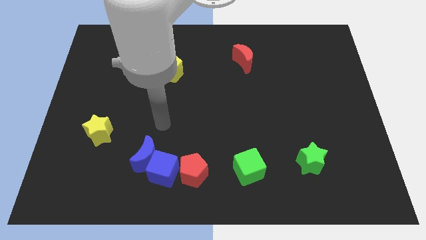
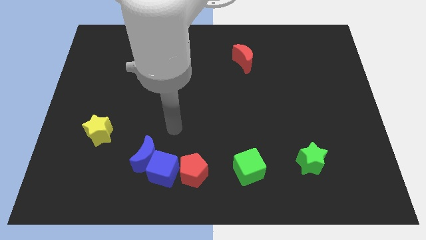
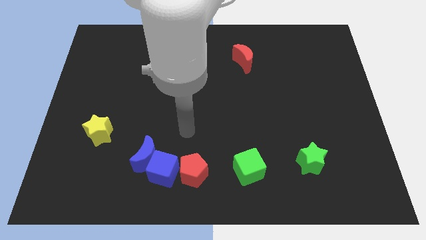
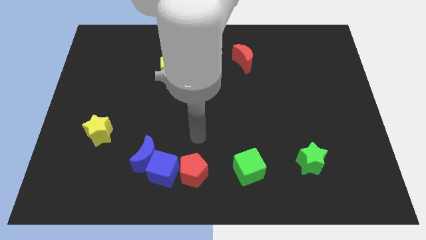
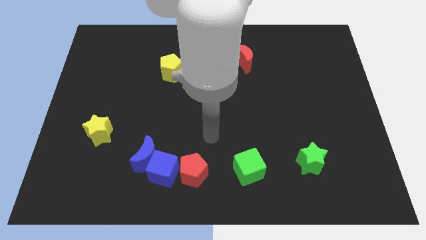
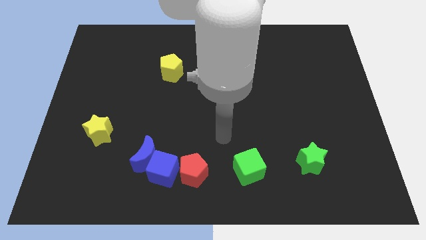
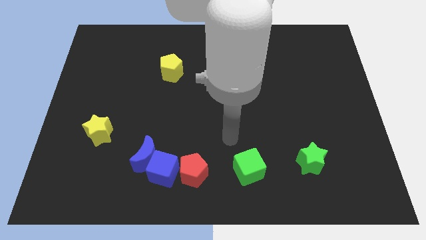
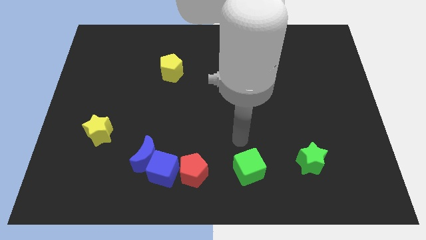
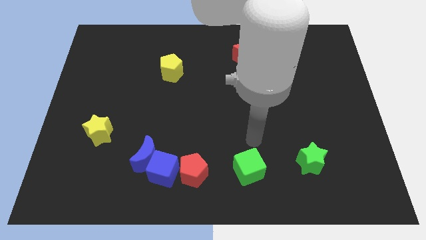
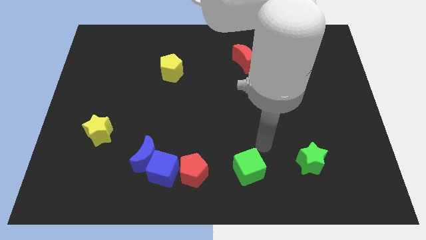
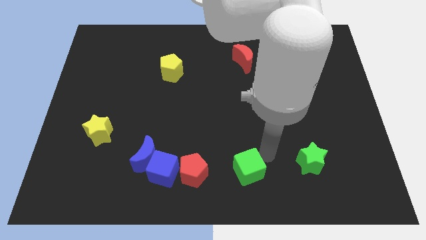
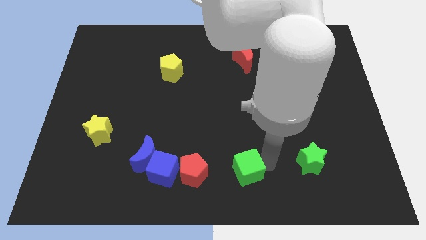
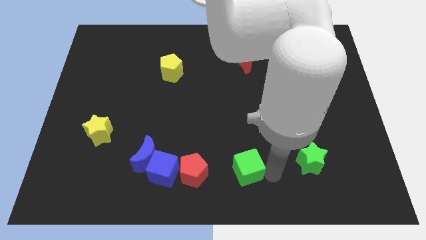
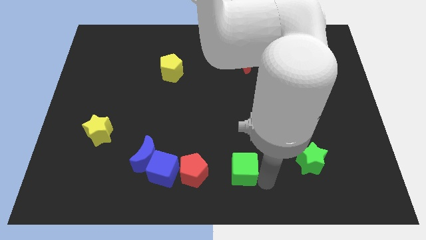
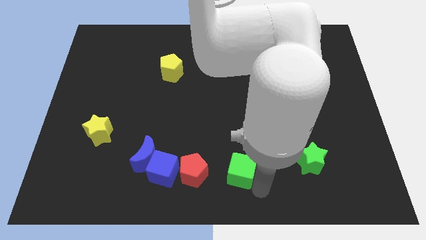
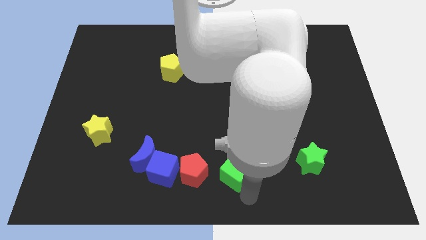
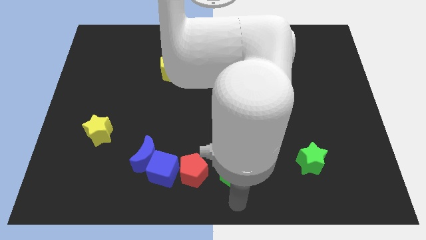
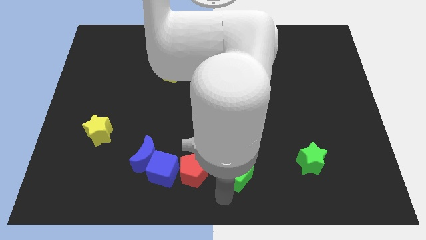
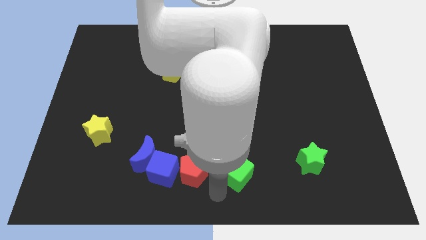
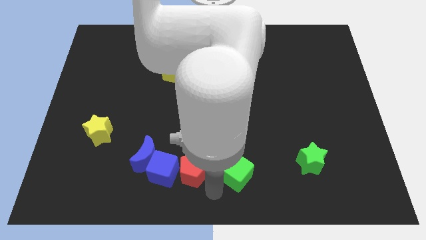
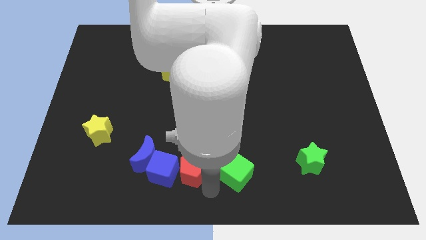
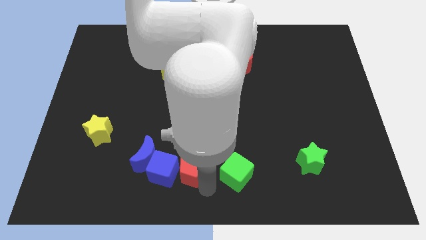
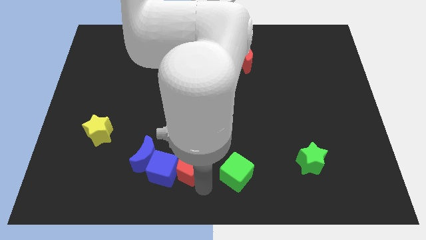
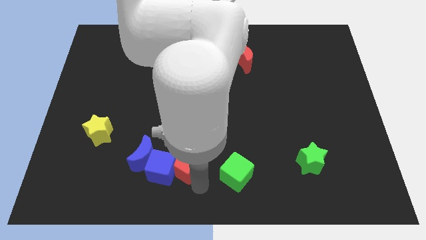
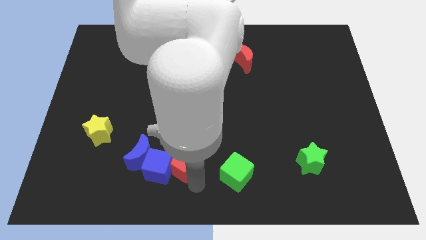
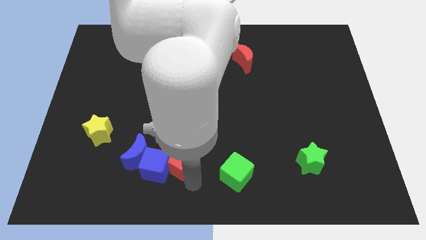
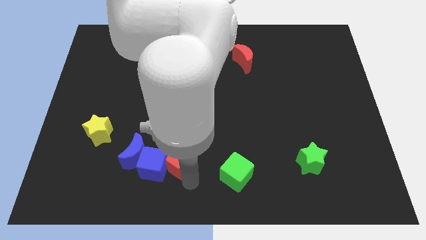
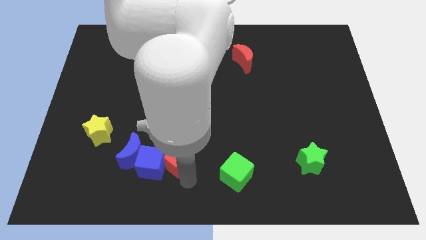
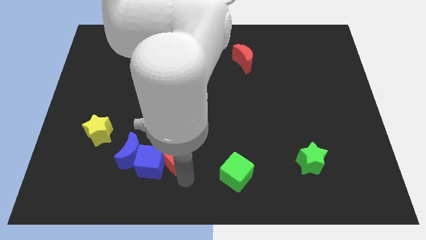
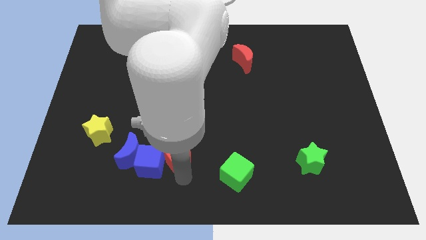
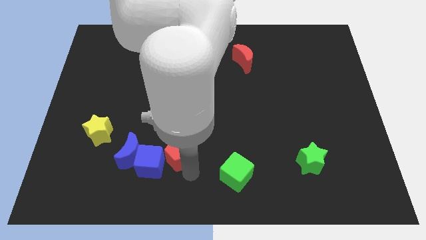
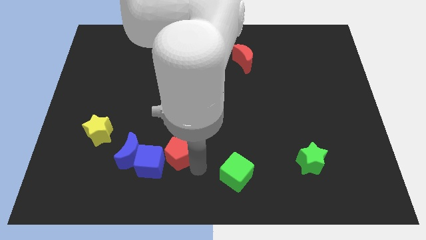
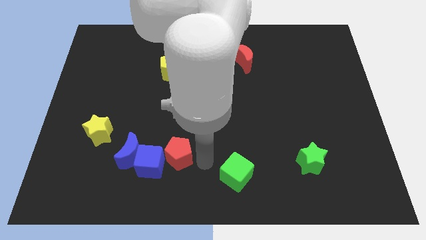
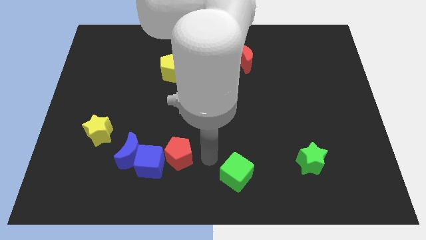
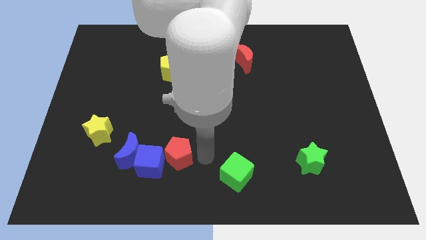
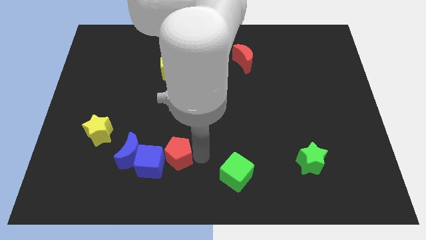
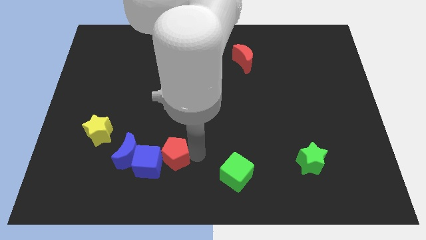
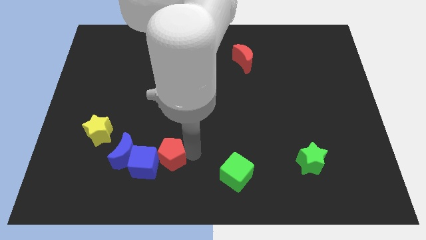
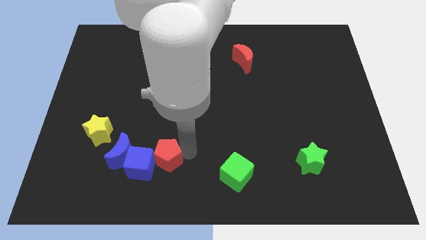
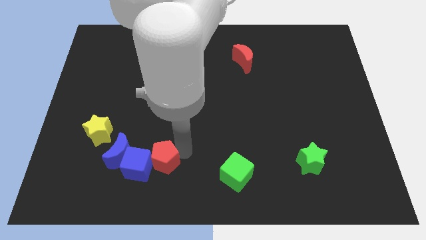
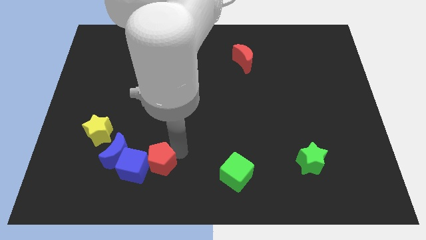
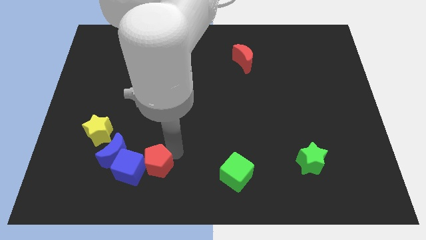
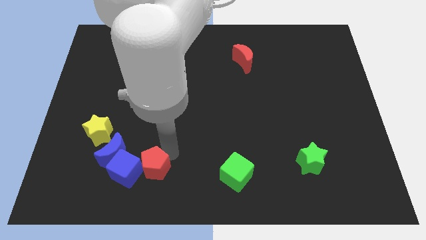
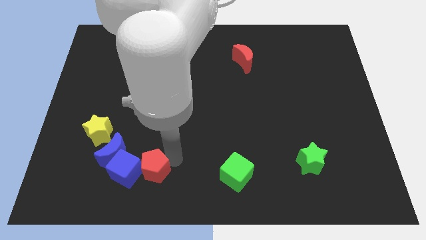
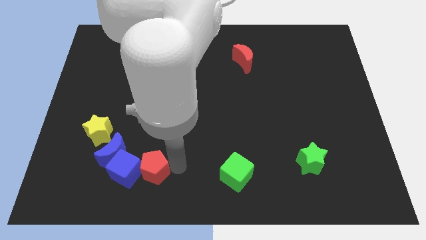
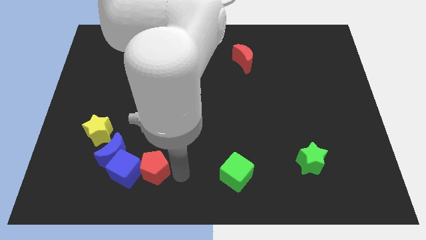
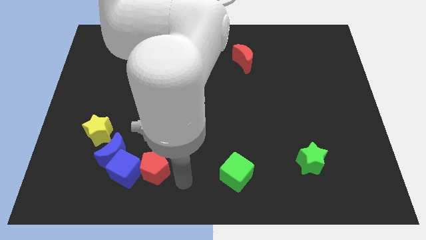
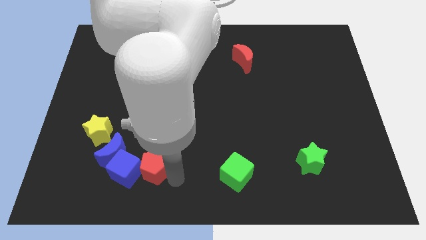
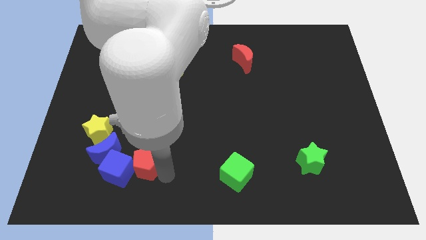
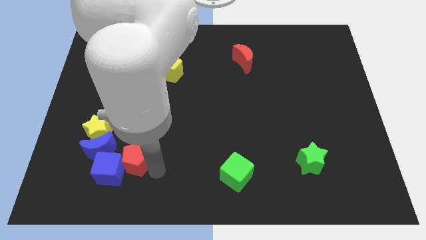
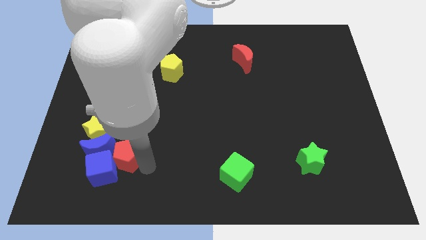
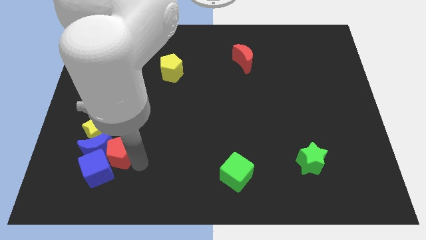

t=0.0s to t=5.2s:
slide the red pentagon next to the blue moon

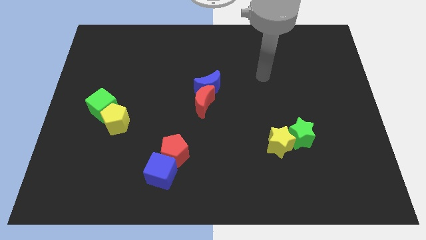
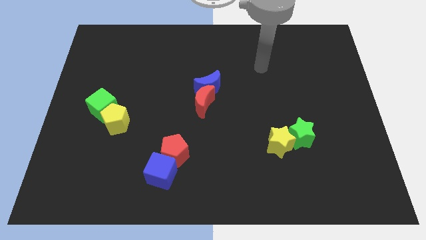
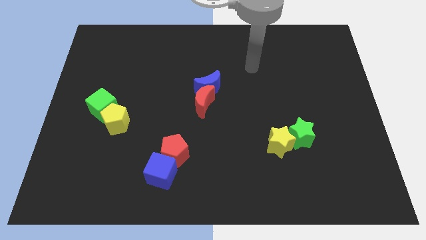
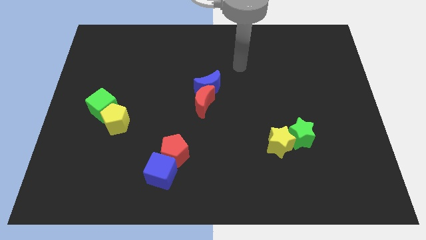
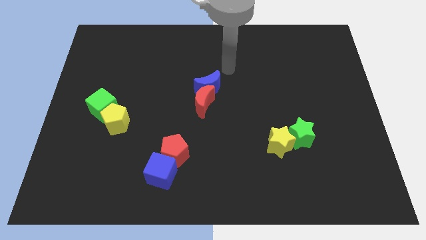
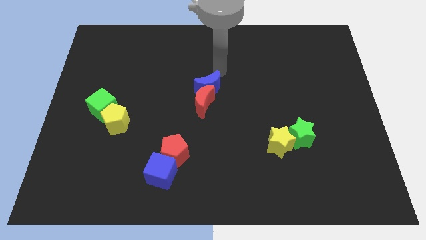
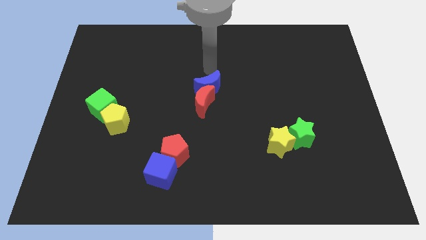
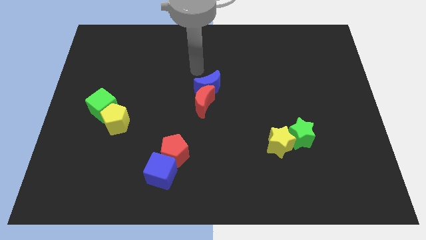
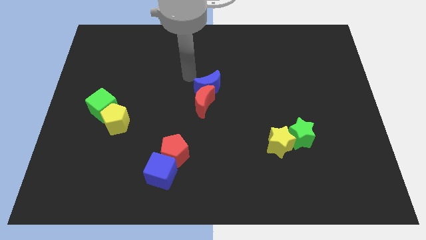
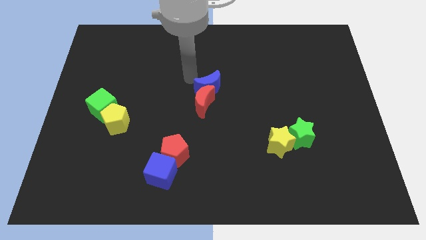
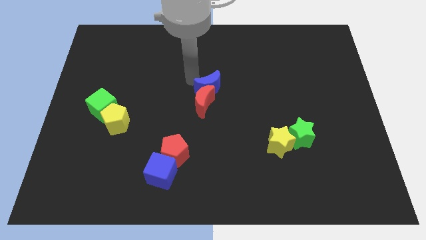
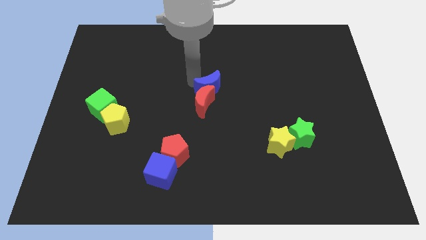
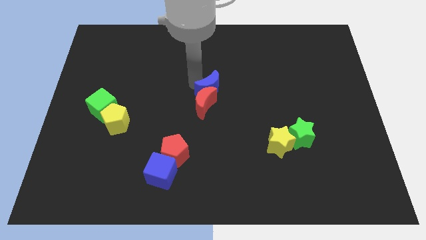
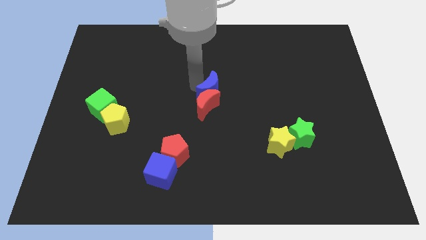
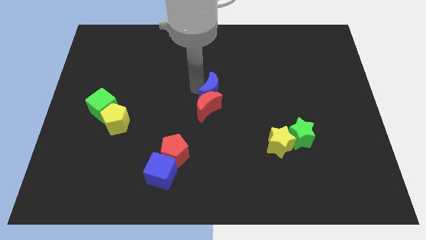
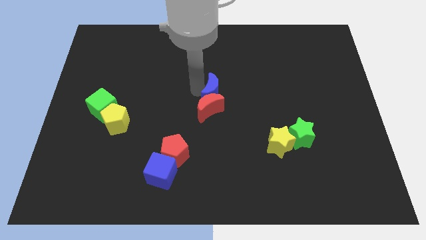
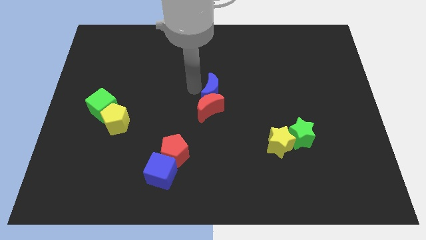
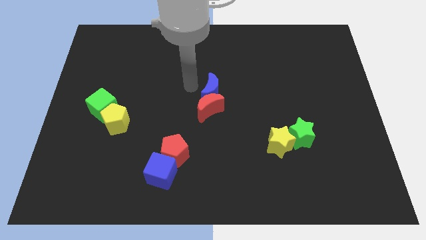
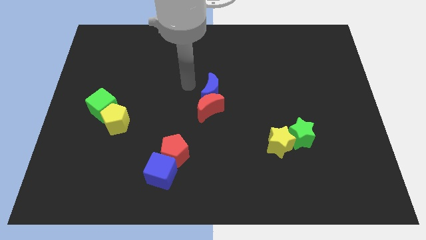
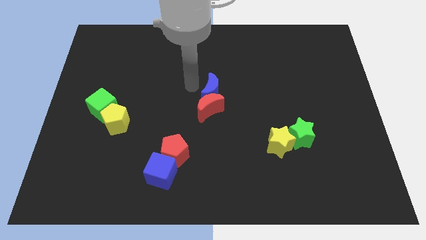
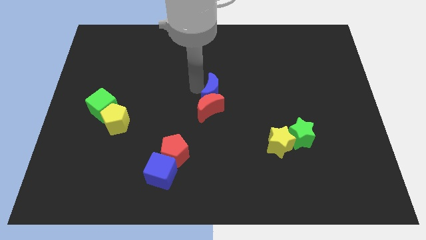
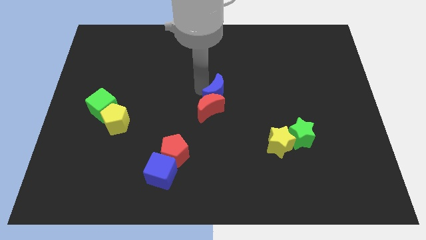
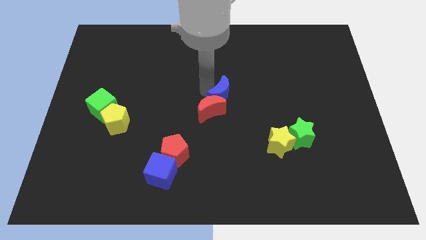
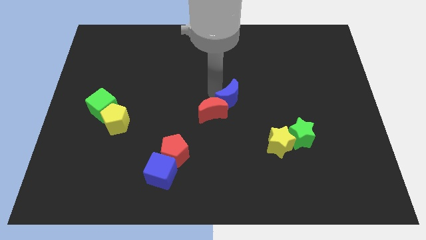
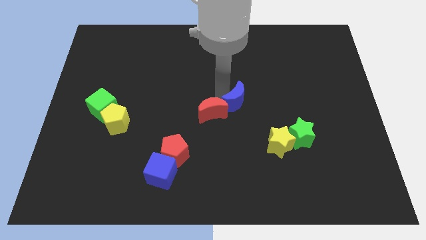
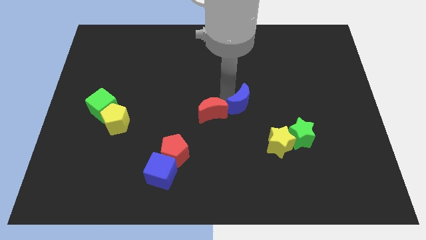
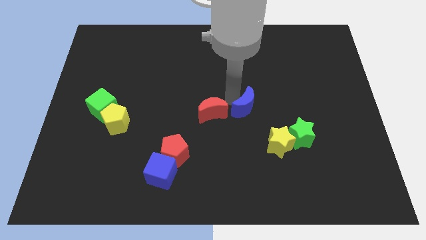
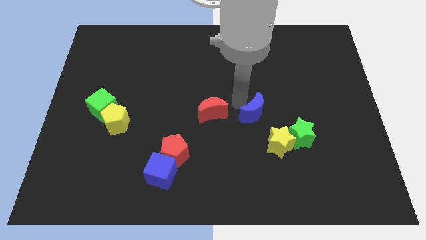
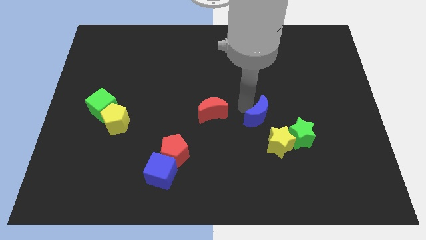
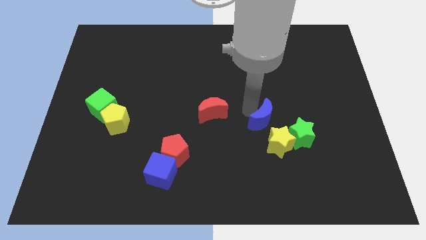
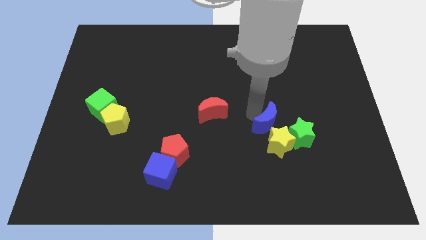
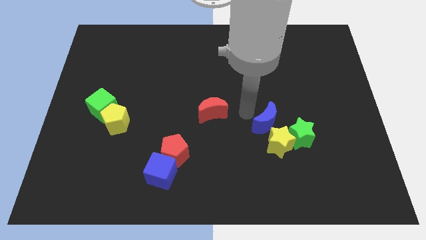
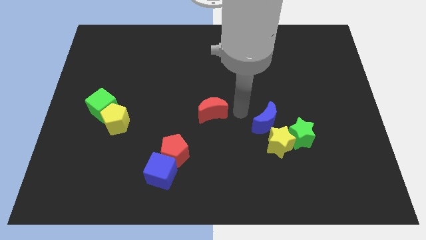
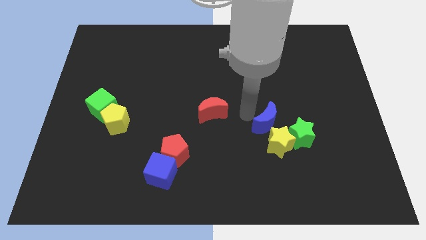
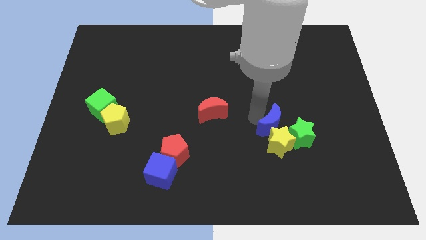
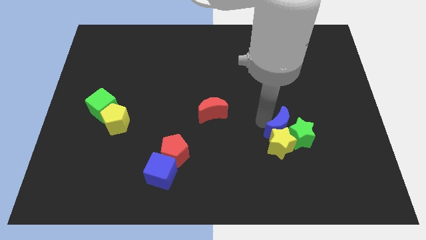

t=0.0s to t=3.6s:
put the blue moon close to the green star
